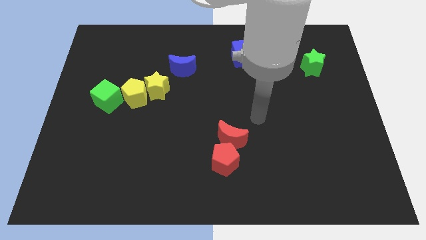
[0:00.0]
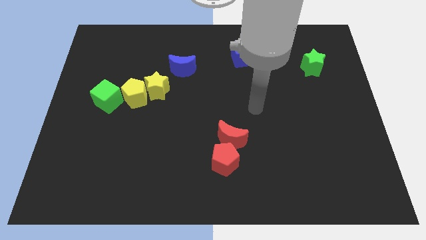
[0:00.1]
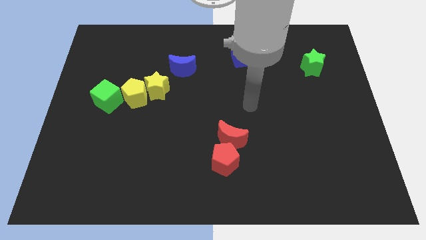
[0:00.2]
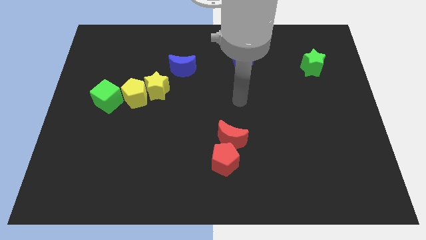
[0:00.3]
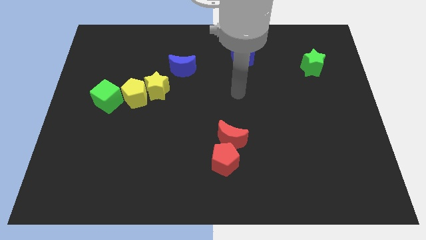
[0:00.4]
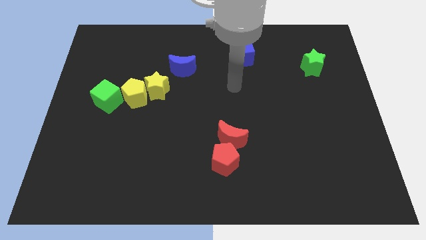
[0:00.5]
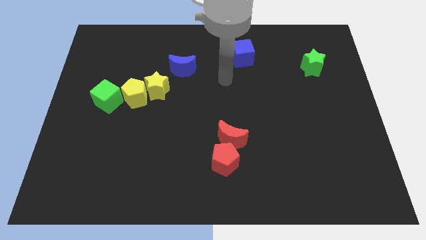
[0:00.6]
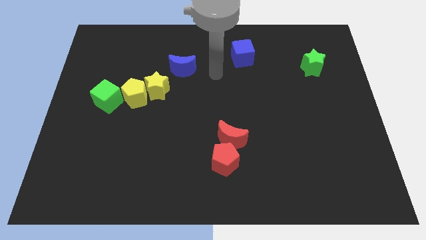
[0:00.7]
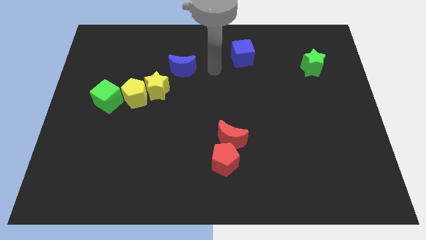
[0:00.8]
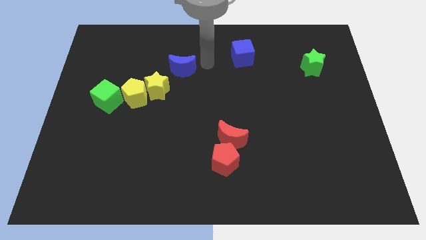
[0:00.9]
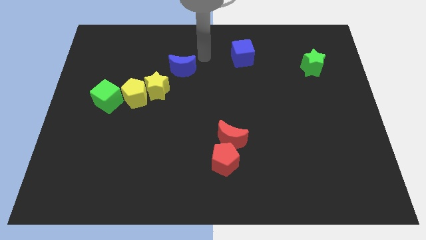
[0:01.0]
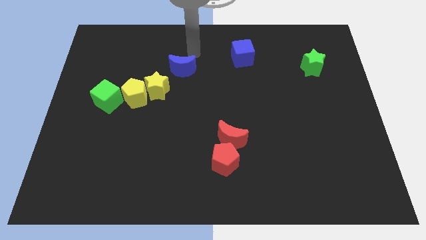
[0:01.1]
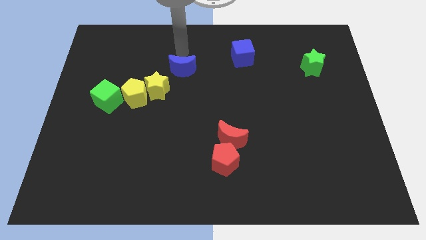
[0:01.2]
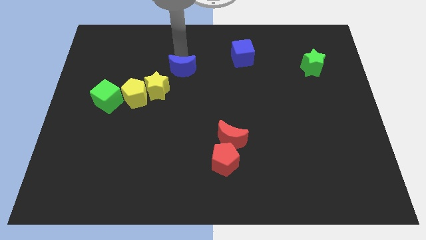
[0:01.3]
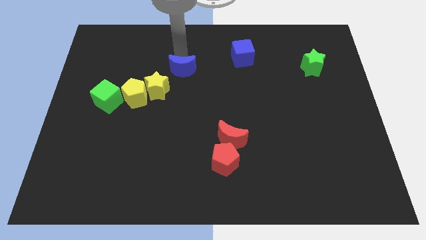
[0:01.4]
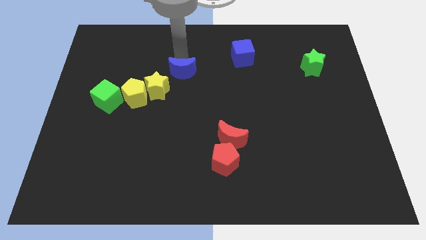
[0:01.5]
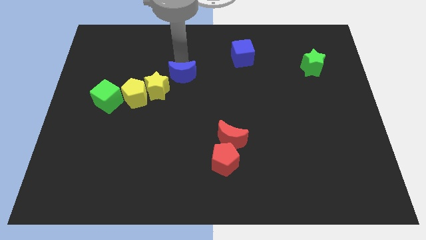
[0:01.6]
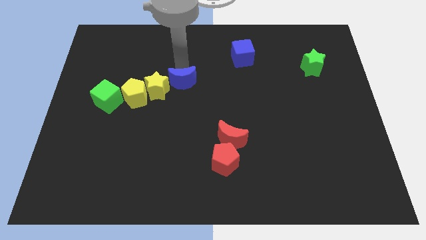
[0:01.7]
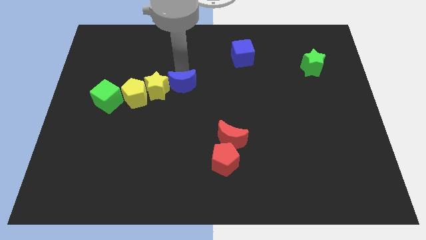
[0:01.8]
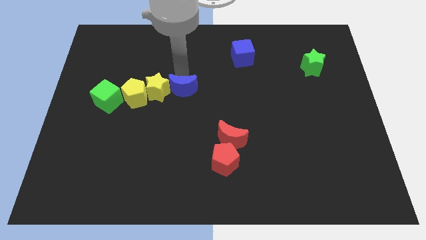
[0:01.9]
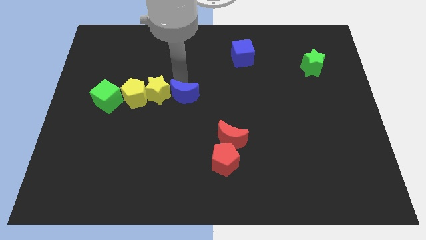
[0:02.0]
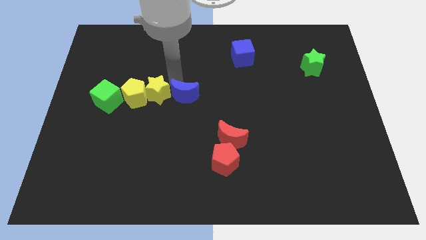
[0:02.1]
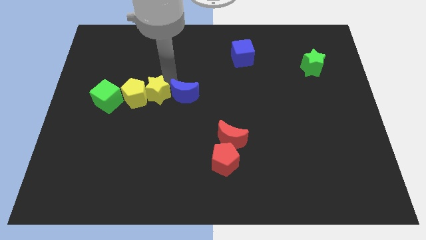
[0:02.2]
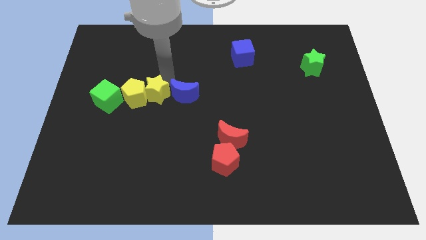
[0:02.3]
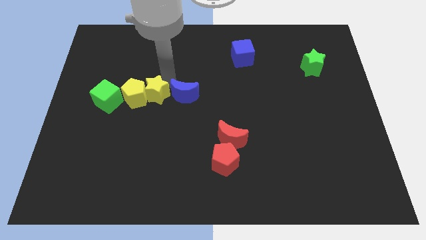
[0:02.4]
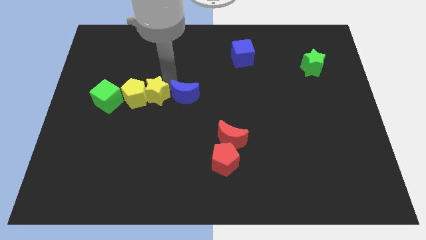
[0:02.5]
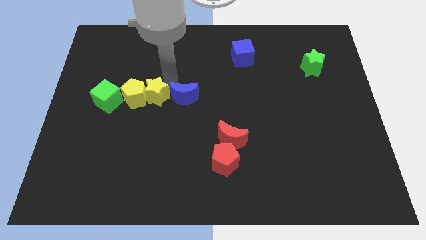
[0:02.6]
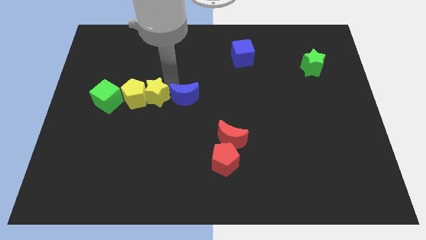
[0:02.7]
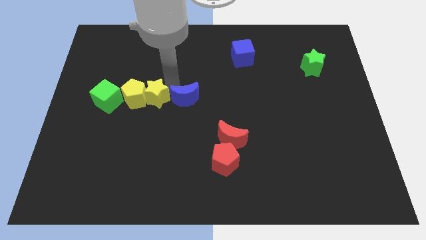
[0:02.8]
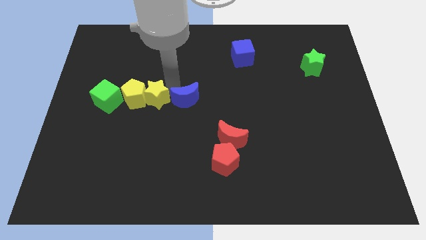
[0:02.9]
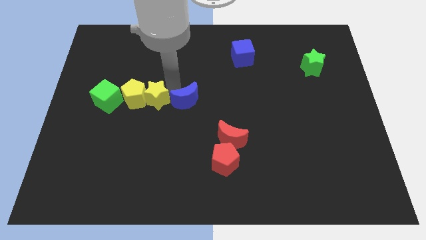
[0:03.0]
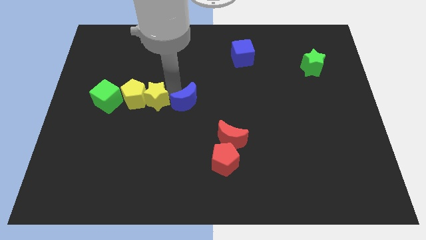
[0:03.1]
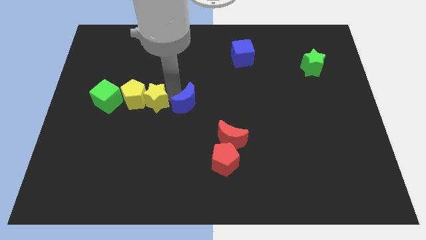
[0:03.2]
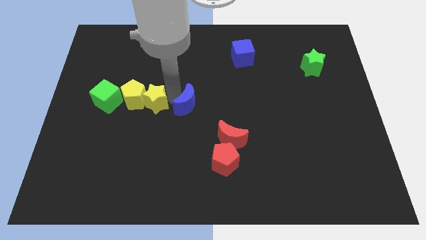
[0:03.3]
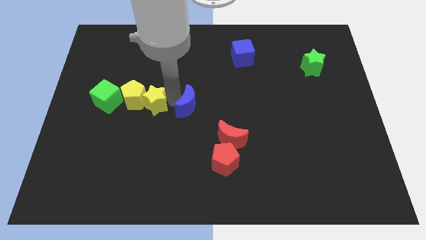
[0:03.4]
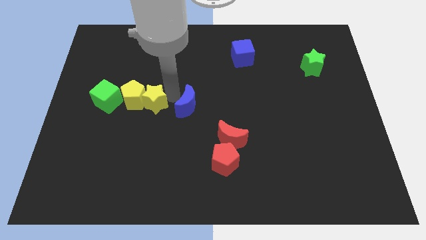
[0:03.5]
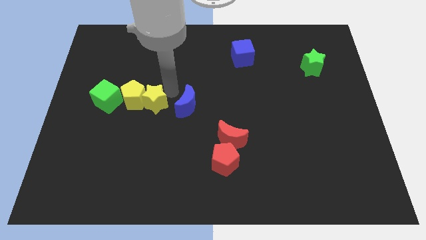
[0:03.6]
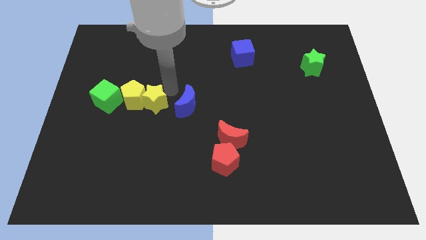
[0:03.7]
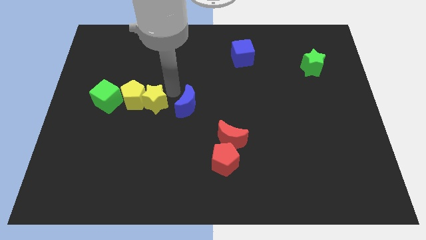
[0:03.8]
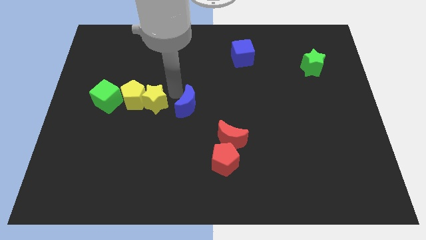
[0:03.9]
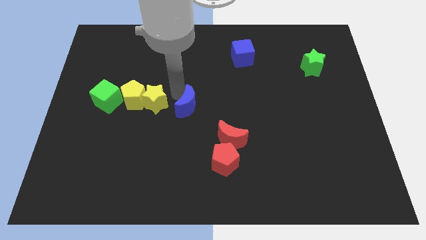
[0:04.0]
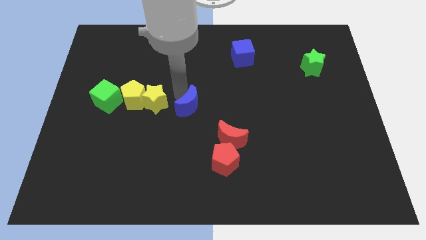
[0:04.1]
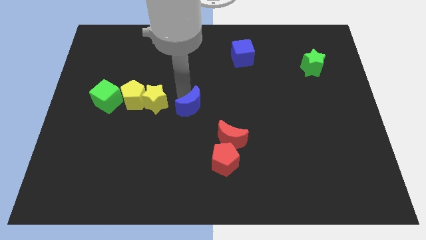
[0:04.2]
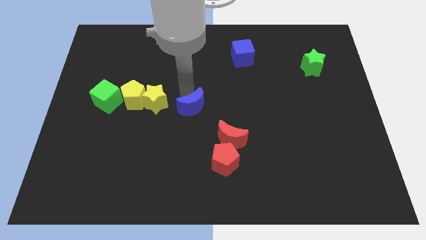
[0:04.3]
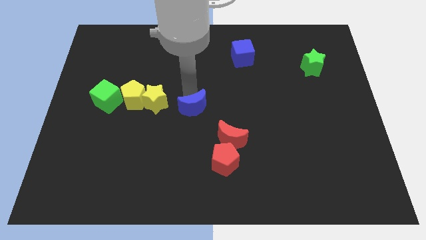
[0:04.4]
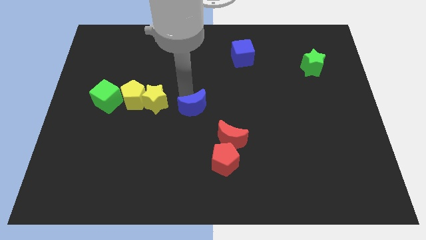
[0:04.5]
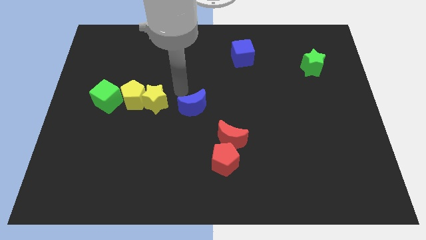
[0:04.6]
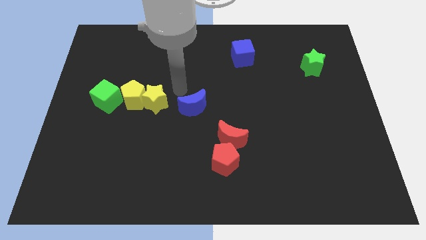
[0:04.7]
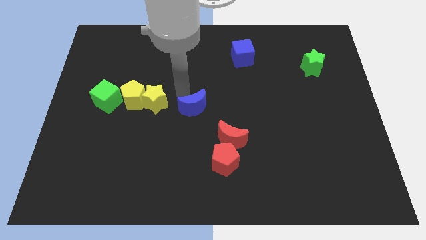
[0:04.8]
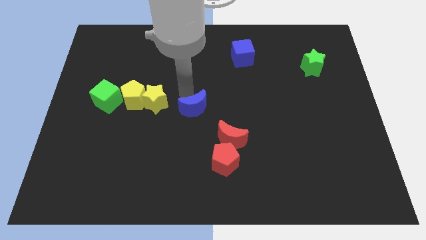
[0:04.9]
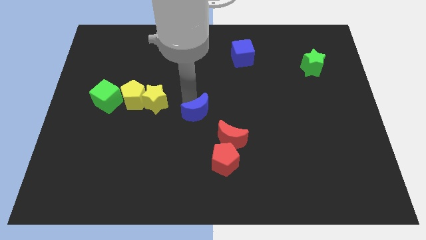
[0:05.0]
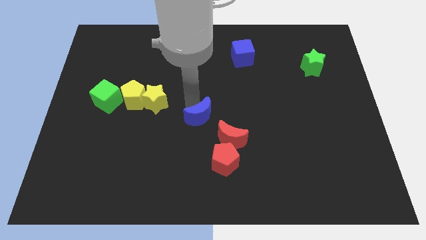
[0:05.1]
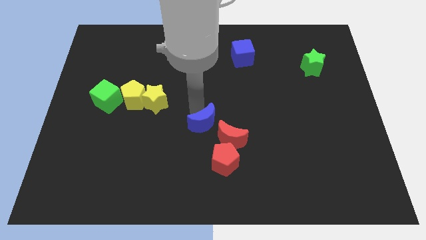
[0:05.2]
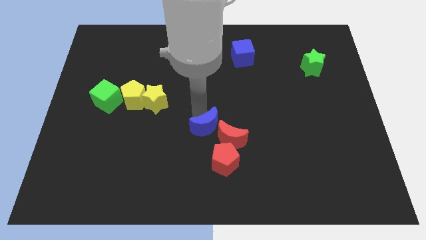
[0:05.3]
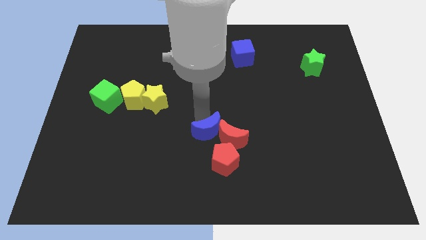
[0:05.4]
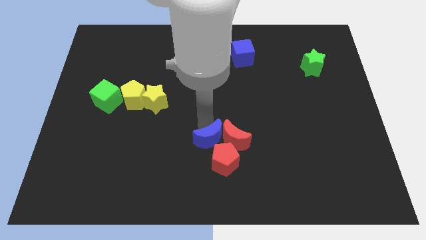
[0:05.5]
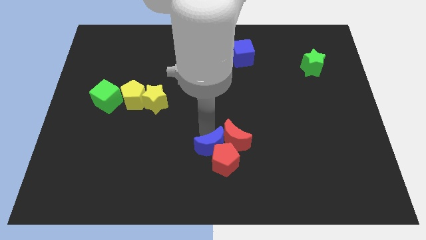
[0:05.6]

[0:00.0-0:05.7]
slide the blue moon towards the red pentagon

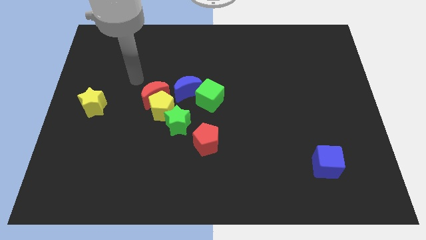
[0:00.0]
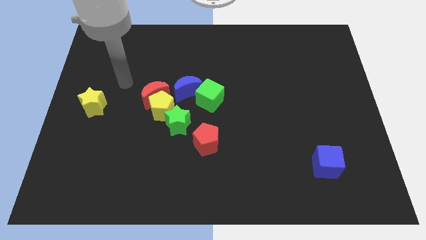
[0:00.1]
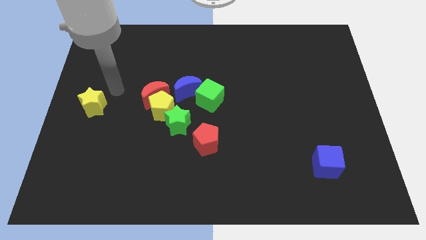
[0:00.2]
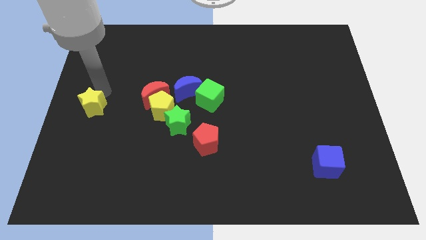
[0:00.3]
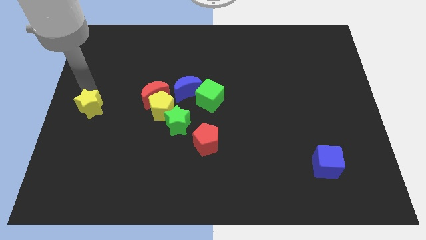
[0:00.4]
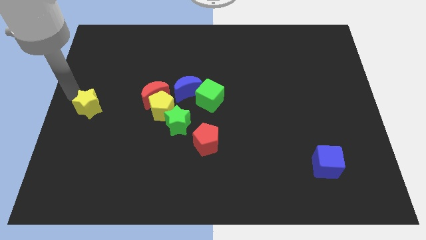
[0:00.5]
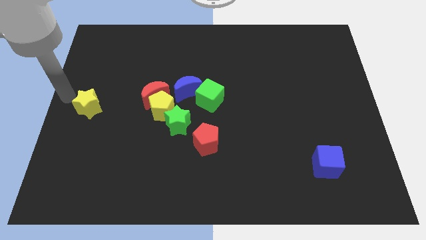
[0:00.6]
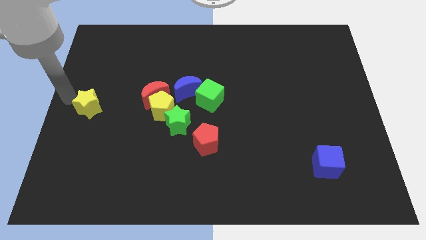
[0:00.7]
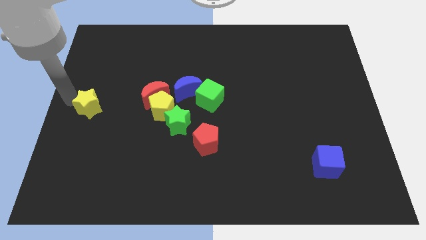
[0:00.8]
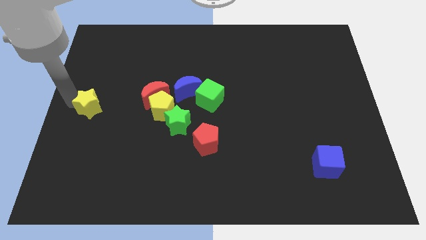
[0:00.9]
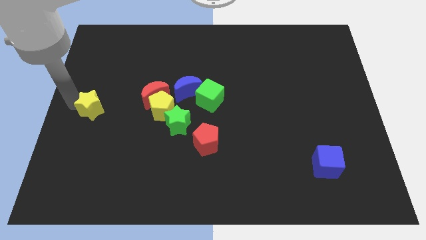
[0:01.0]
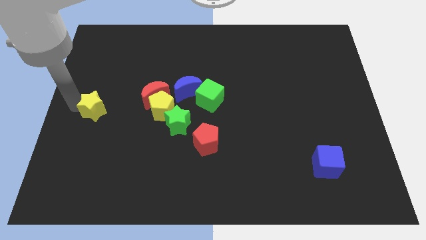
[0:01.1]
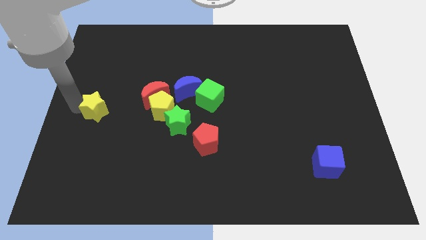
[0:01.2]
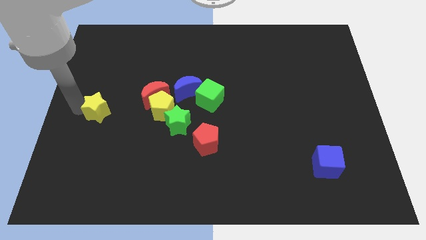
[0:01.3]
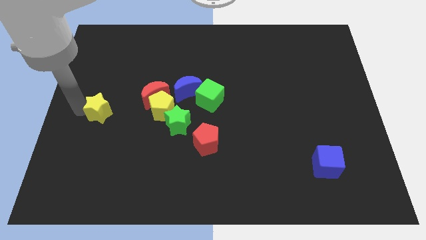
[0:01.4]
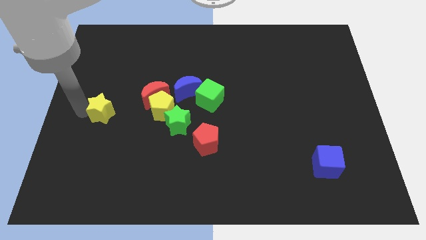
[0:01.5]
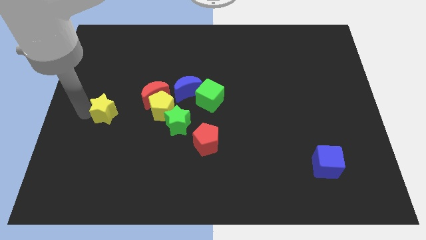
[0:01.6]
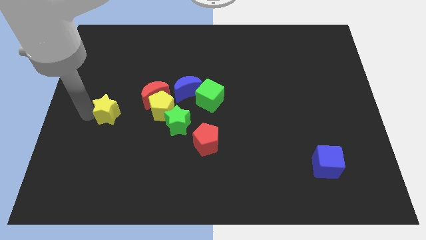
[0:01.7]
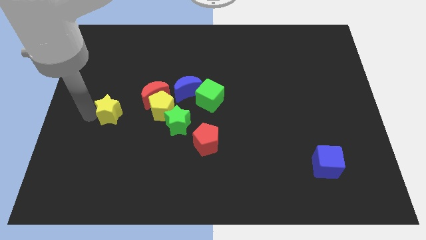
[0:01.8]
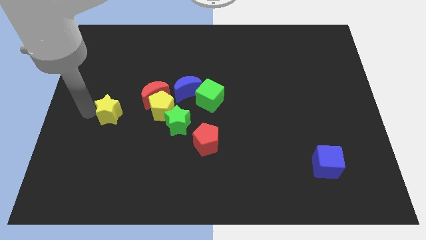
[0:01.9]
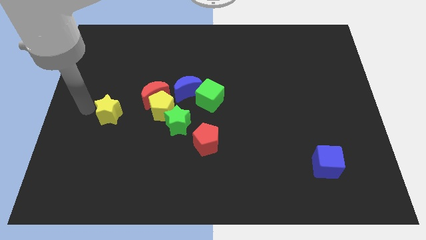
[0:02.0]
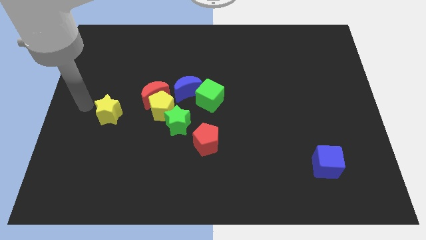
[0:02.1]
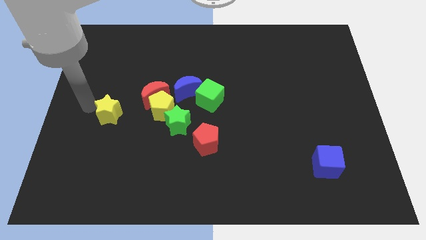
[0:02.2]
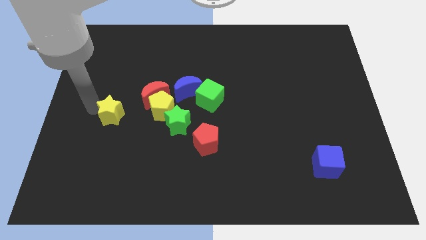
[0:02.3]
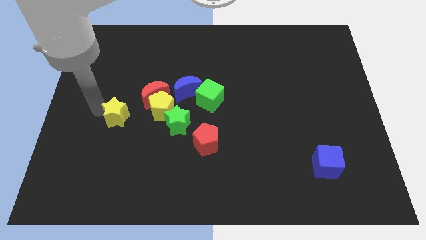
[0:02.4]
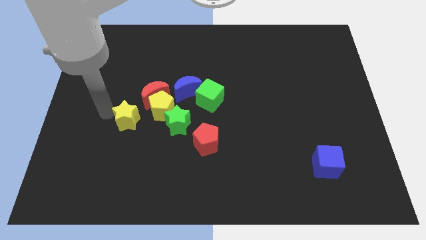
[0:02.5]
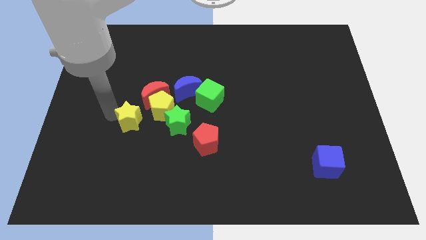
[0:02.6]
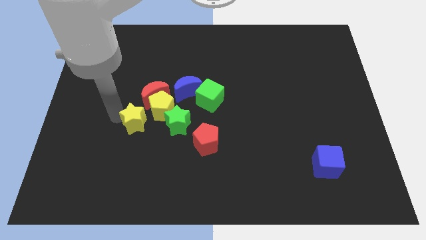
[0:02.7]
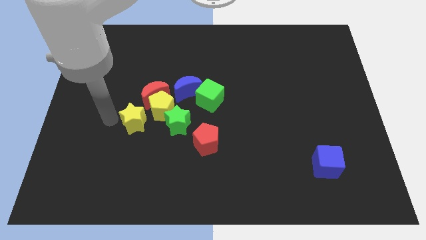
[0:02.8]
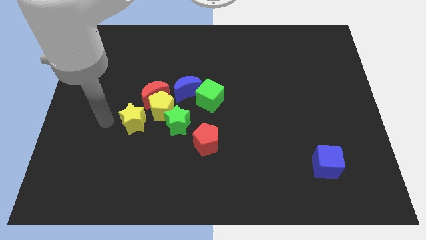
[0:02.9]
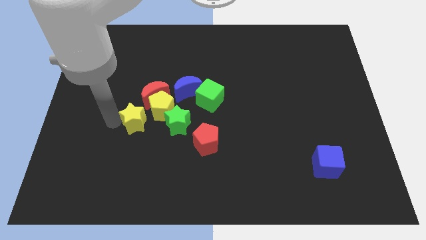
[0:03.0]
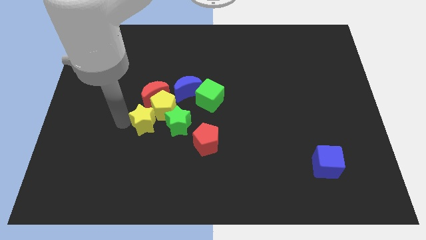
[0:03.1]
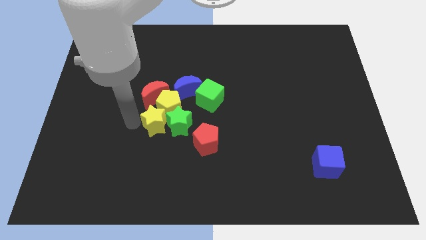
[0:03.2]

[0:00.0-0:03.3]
push the yellow star next to the green star
